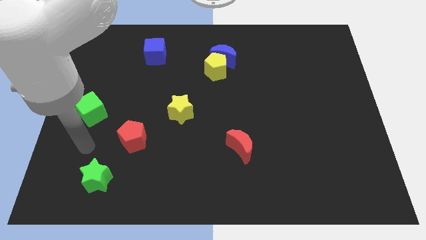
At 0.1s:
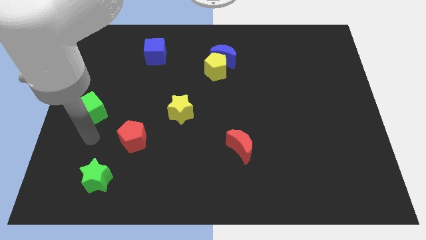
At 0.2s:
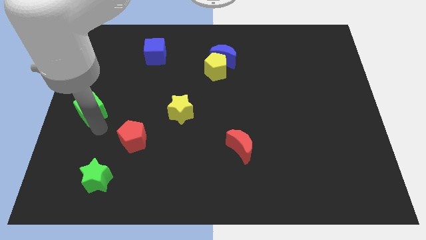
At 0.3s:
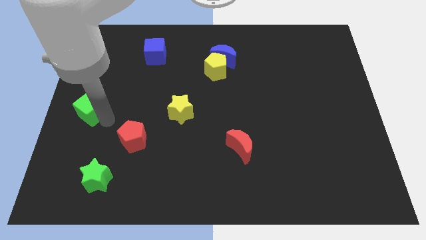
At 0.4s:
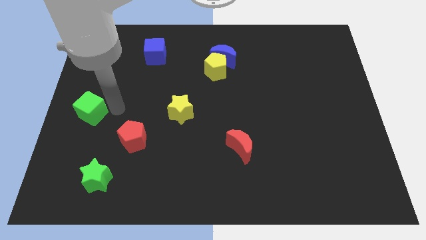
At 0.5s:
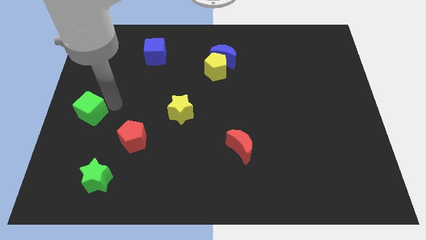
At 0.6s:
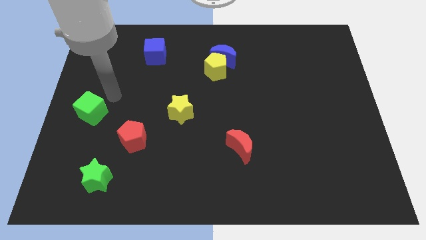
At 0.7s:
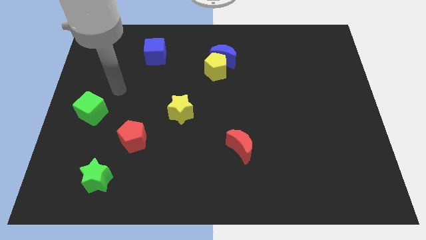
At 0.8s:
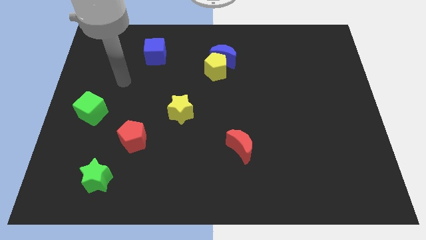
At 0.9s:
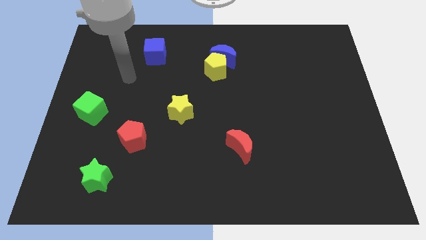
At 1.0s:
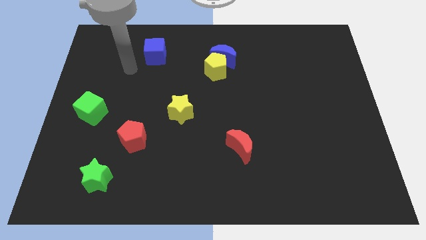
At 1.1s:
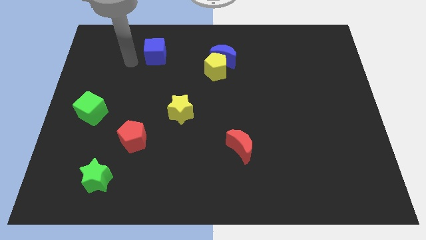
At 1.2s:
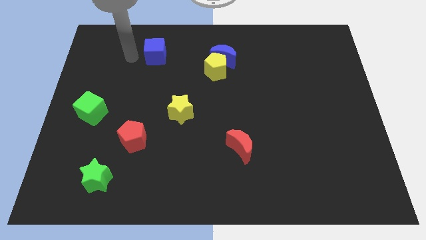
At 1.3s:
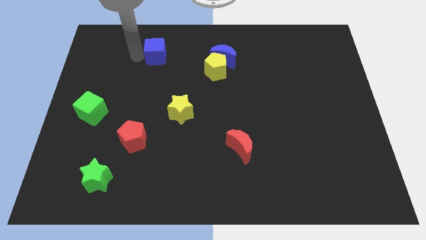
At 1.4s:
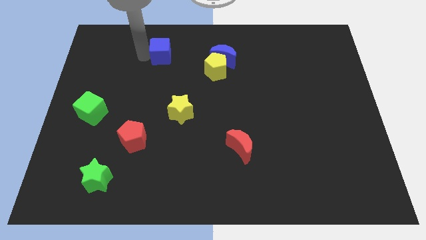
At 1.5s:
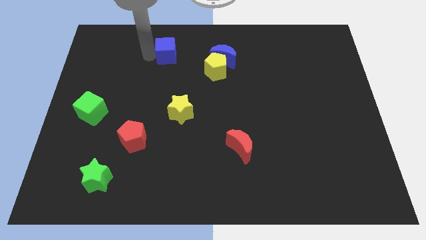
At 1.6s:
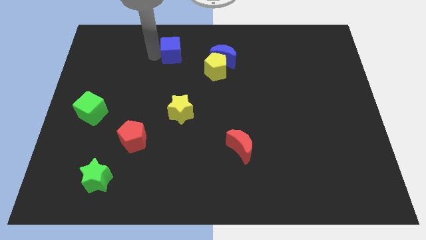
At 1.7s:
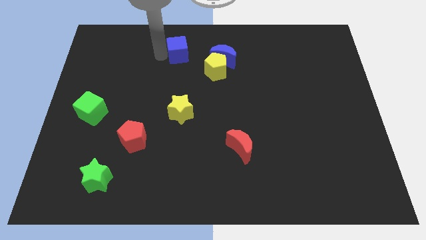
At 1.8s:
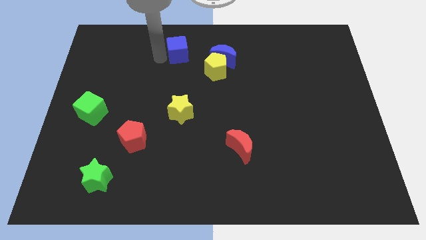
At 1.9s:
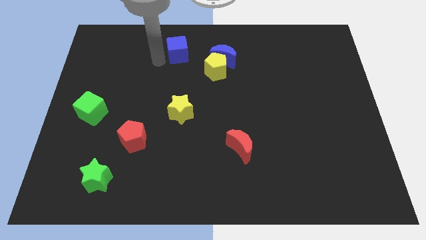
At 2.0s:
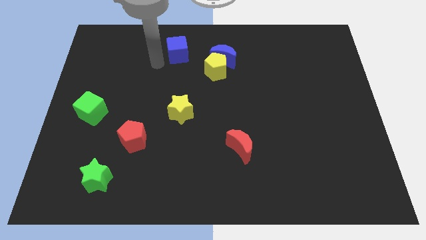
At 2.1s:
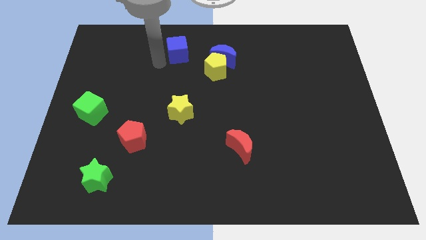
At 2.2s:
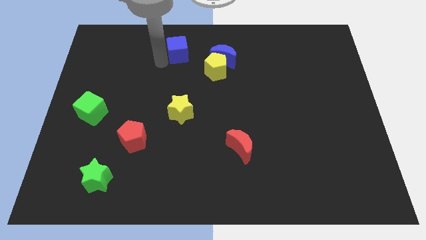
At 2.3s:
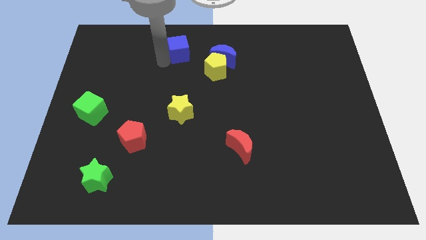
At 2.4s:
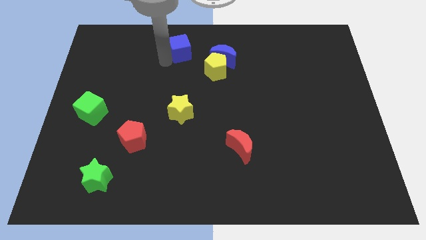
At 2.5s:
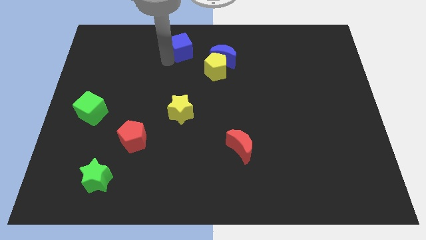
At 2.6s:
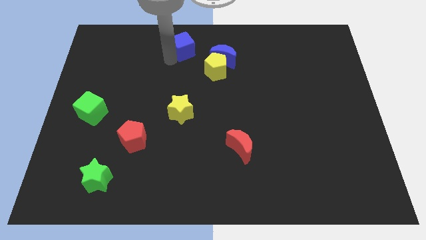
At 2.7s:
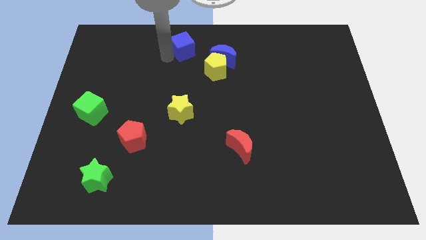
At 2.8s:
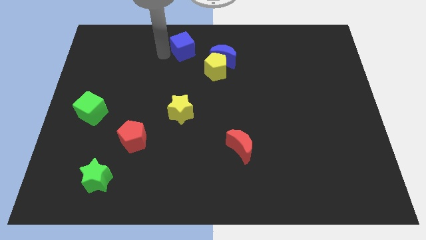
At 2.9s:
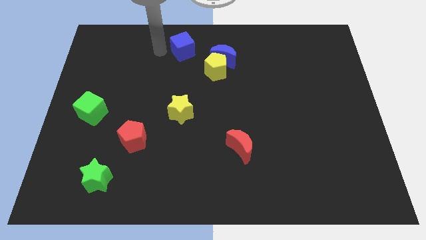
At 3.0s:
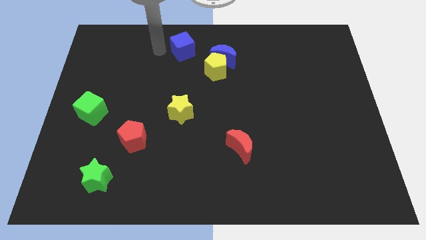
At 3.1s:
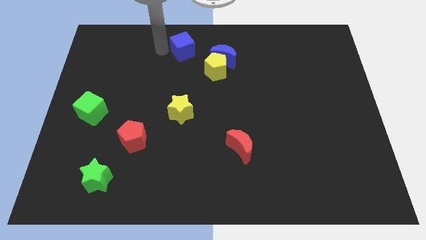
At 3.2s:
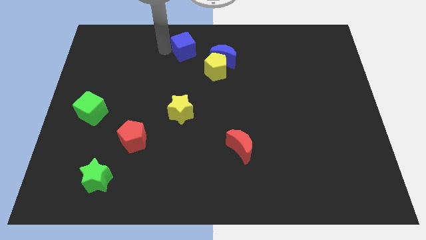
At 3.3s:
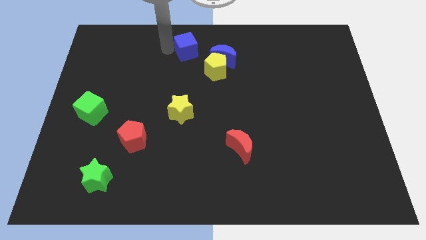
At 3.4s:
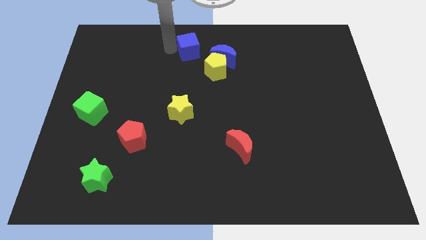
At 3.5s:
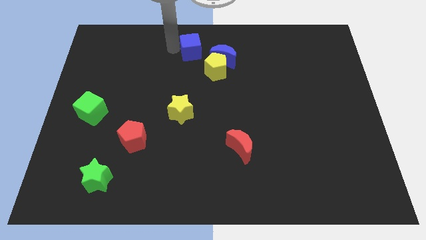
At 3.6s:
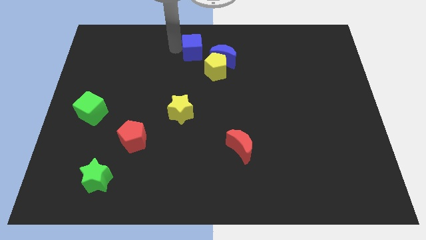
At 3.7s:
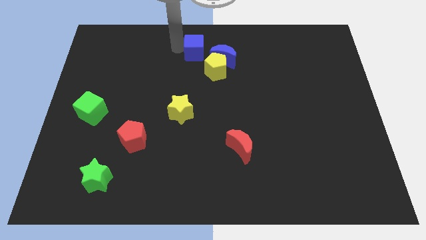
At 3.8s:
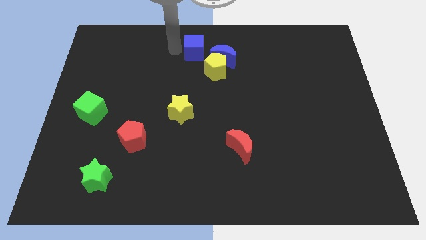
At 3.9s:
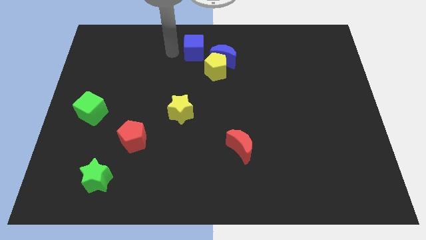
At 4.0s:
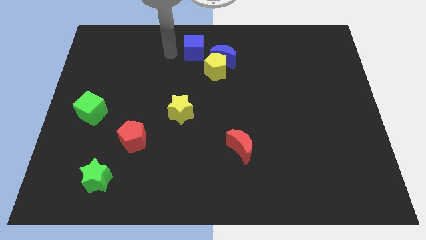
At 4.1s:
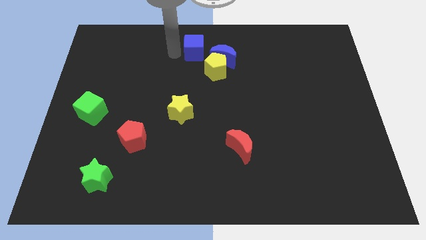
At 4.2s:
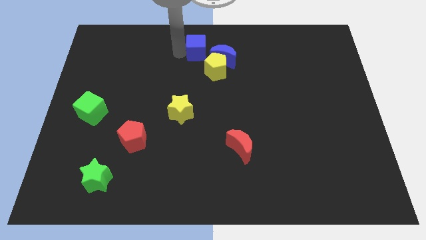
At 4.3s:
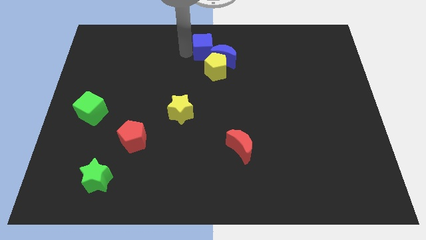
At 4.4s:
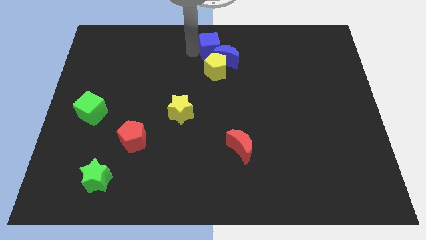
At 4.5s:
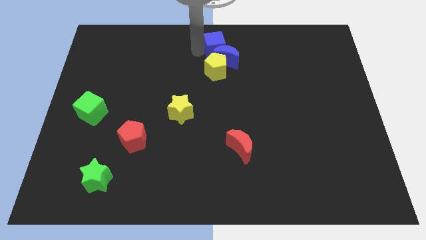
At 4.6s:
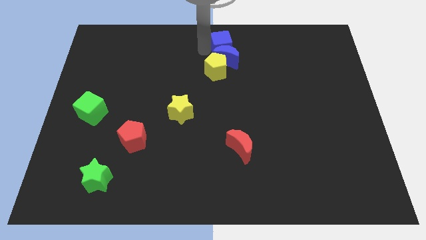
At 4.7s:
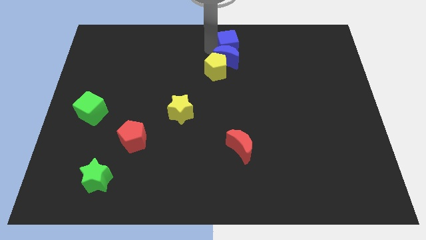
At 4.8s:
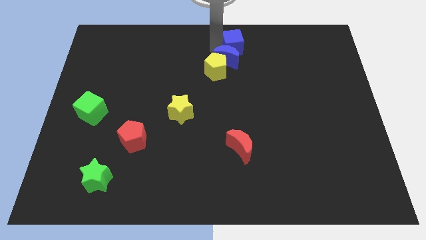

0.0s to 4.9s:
move the blue cube to the right

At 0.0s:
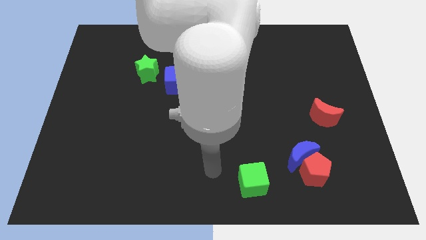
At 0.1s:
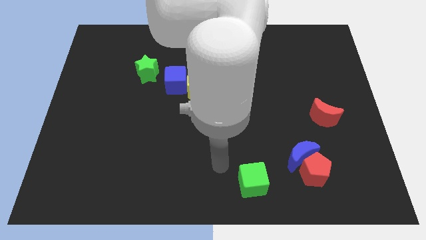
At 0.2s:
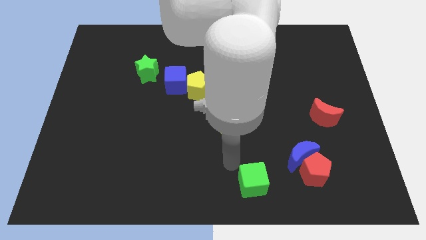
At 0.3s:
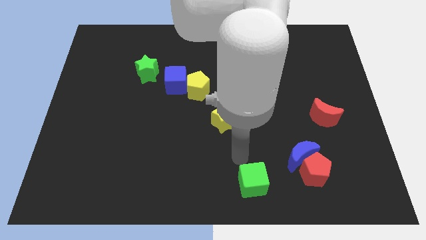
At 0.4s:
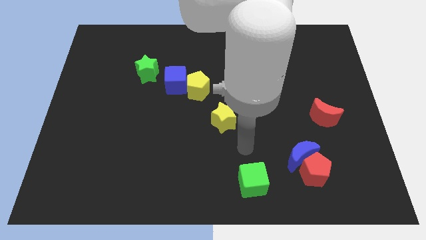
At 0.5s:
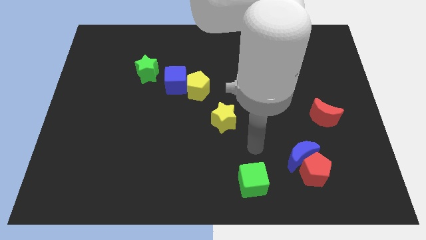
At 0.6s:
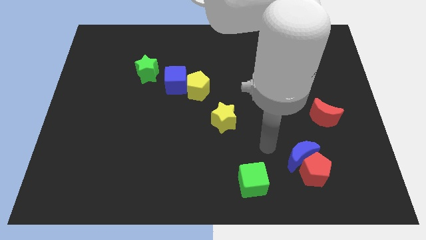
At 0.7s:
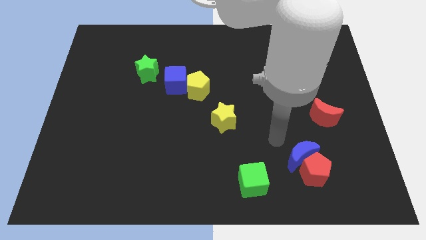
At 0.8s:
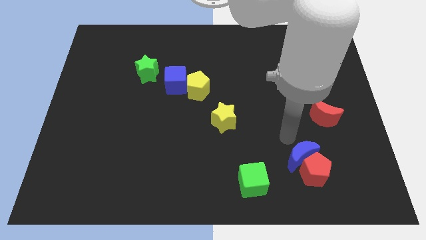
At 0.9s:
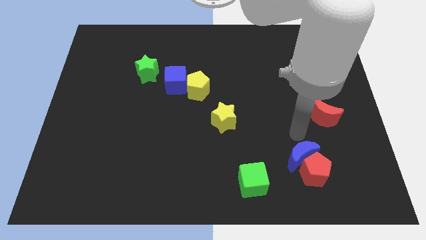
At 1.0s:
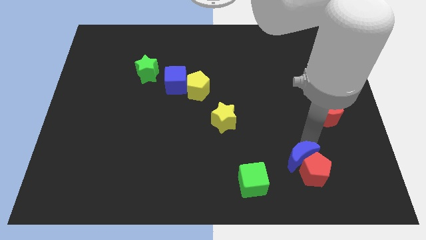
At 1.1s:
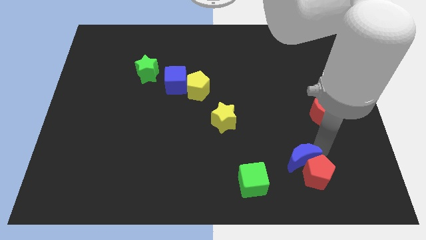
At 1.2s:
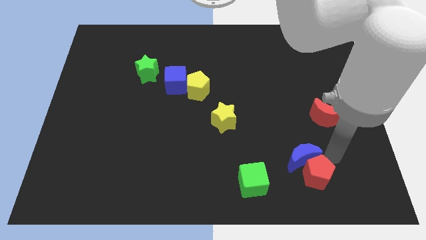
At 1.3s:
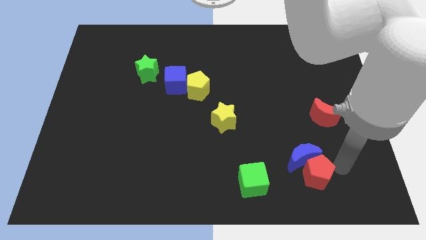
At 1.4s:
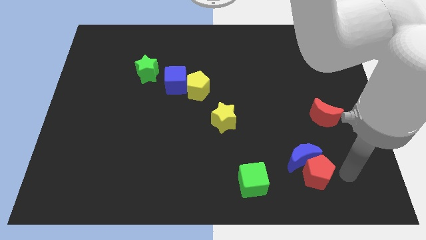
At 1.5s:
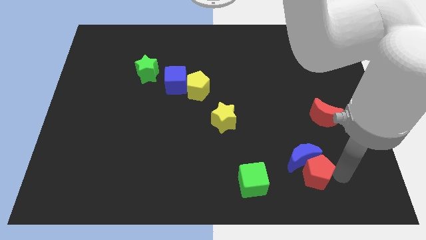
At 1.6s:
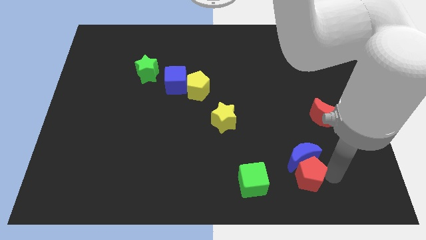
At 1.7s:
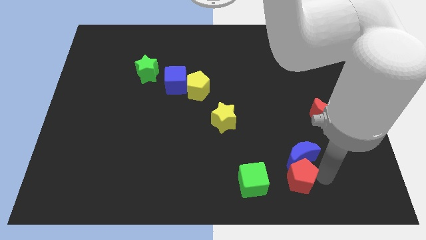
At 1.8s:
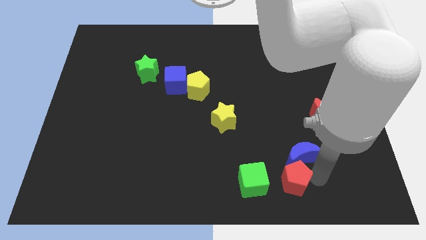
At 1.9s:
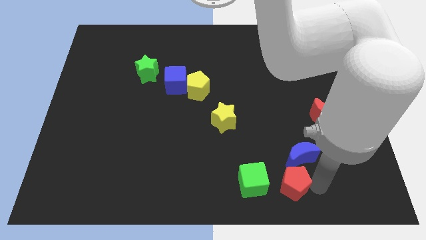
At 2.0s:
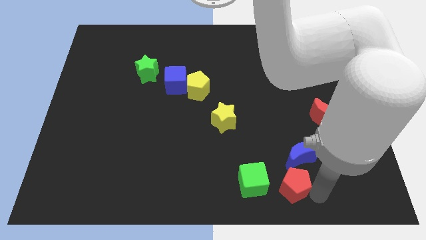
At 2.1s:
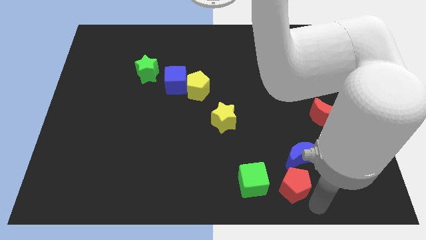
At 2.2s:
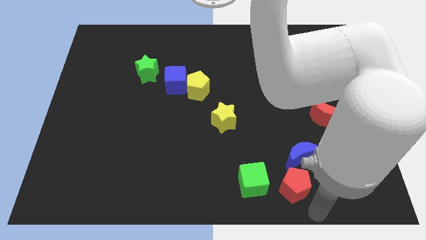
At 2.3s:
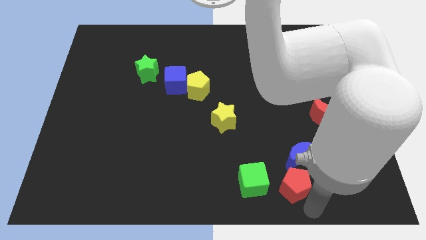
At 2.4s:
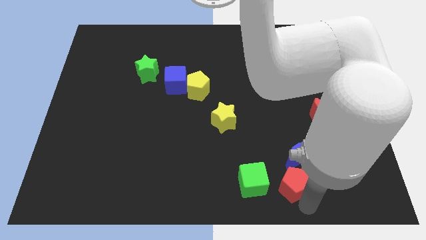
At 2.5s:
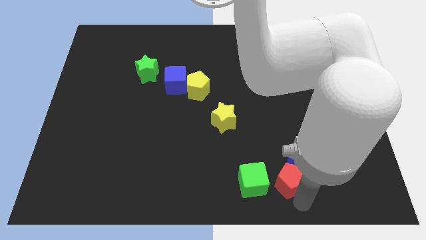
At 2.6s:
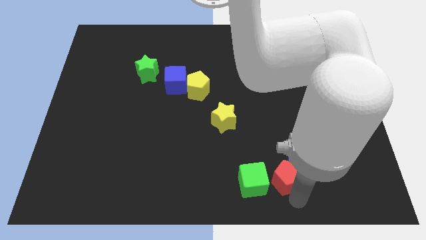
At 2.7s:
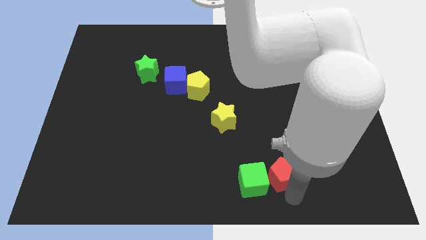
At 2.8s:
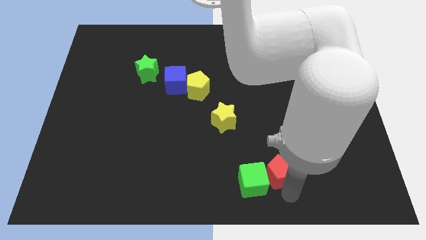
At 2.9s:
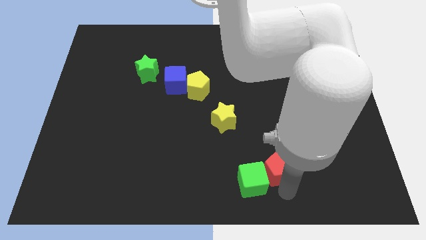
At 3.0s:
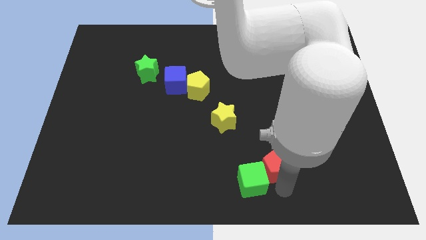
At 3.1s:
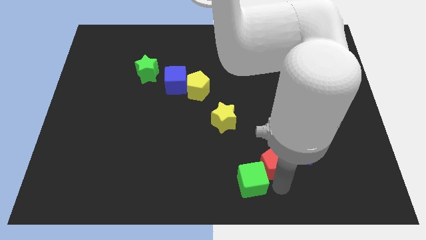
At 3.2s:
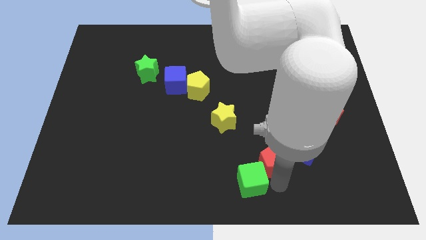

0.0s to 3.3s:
slide the red pentagon a bit up and then to the left

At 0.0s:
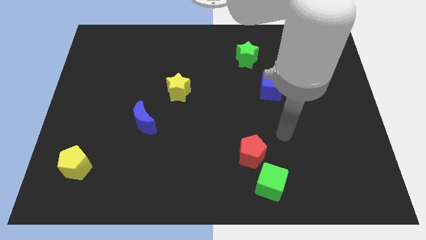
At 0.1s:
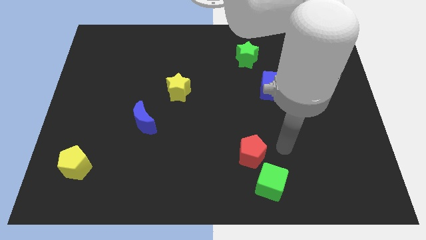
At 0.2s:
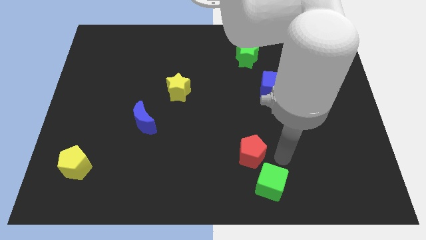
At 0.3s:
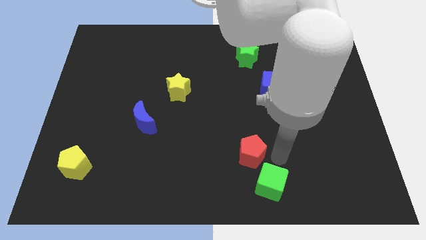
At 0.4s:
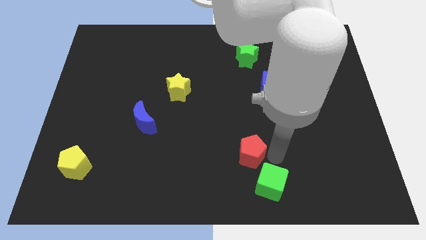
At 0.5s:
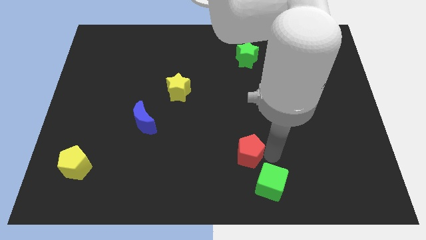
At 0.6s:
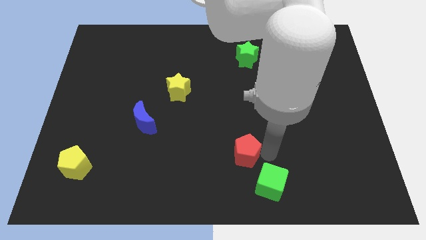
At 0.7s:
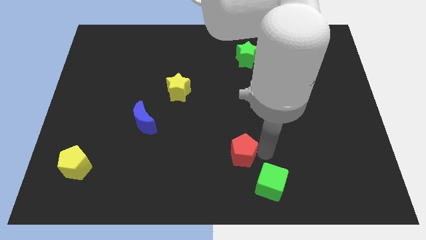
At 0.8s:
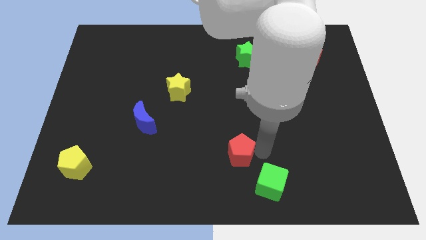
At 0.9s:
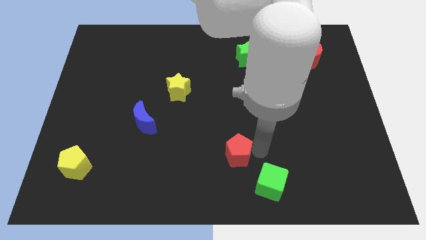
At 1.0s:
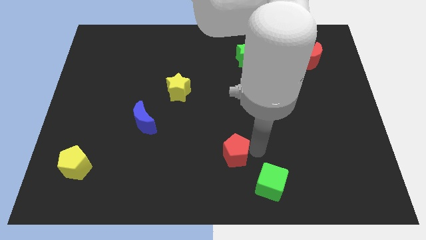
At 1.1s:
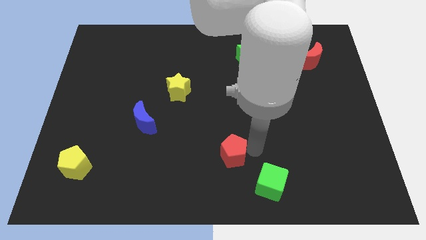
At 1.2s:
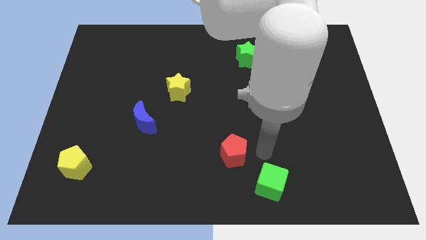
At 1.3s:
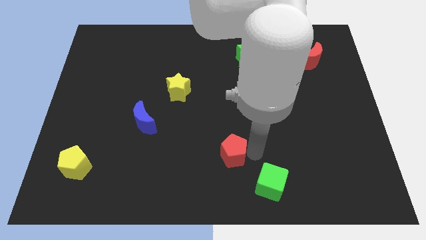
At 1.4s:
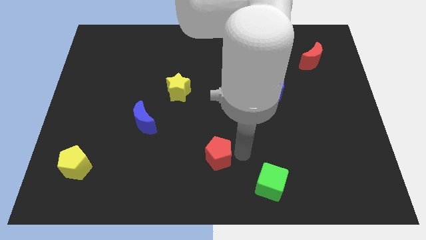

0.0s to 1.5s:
move the red pentagon a little to the left
